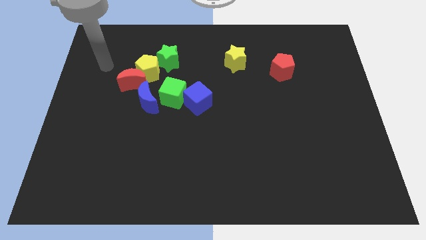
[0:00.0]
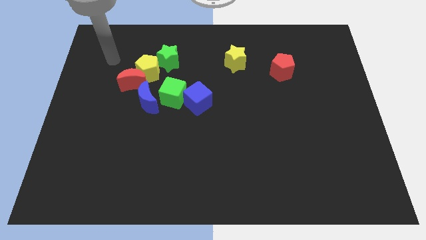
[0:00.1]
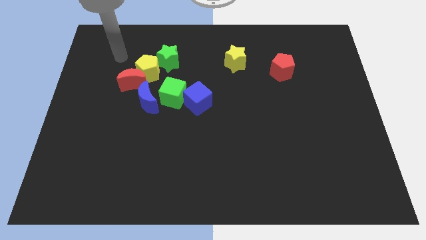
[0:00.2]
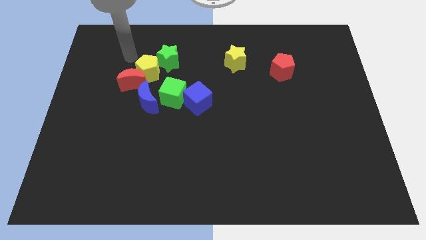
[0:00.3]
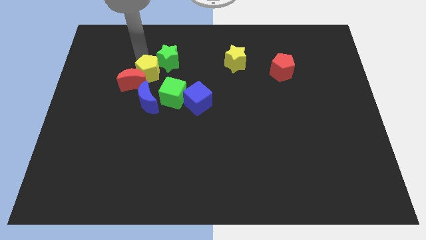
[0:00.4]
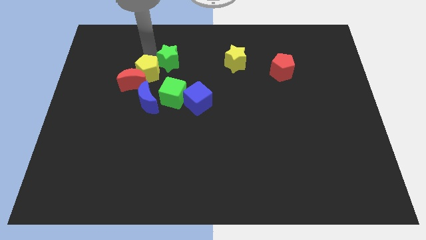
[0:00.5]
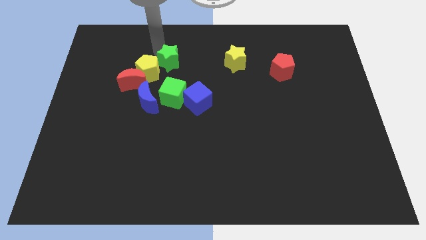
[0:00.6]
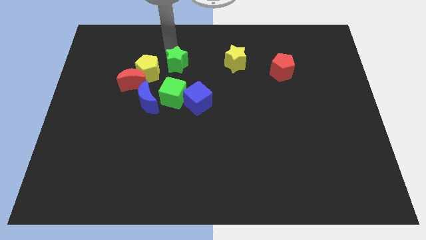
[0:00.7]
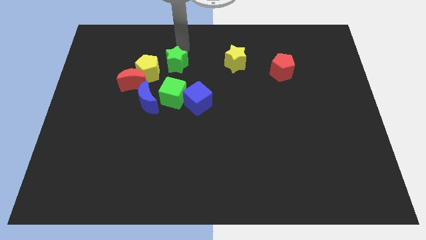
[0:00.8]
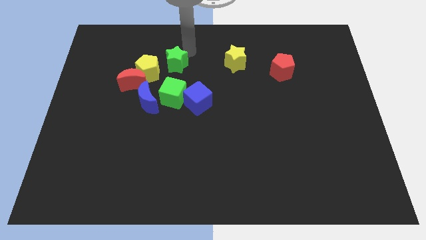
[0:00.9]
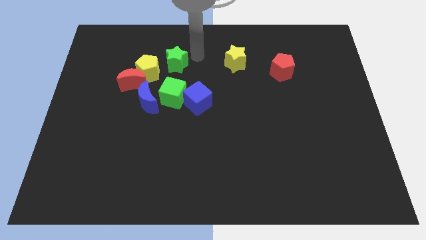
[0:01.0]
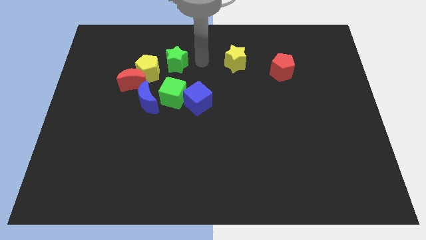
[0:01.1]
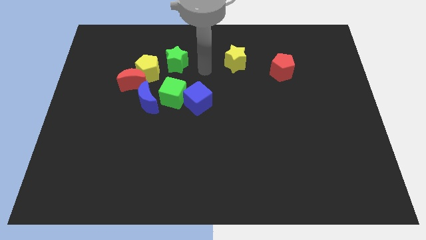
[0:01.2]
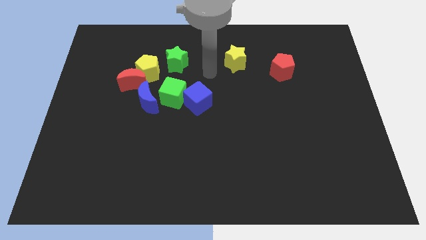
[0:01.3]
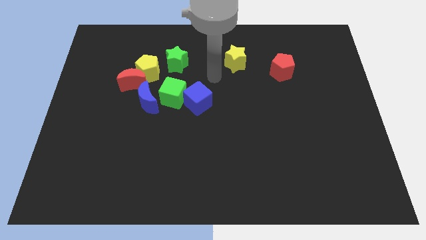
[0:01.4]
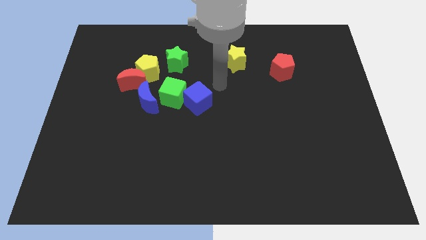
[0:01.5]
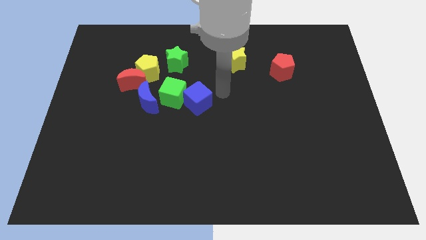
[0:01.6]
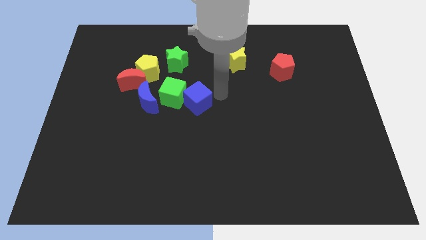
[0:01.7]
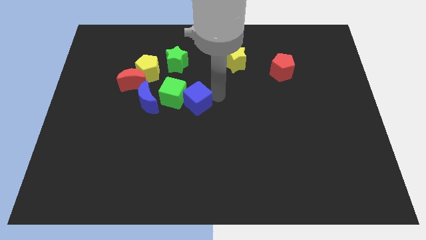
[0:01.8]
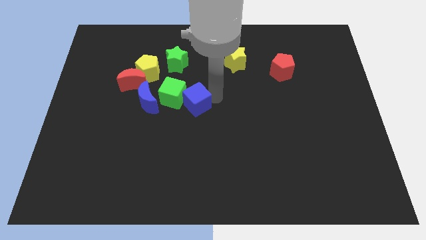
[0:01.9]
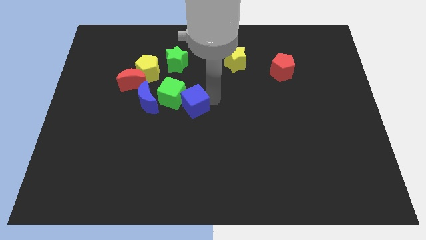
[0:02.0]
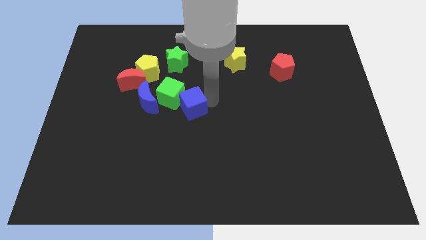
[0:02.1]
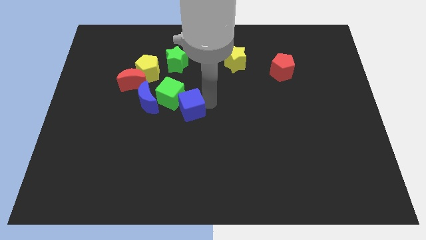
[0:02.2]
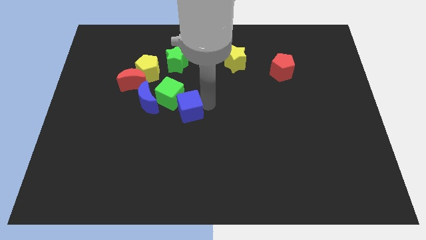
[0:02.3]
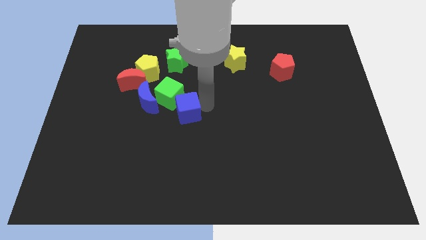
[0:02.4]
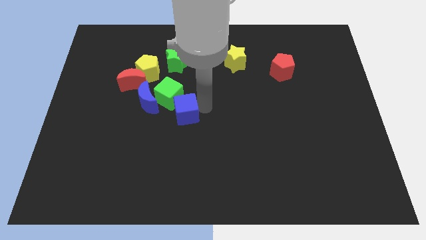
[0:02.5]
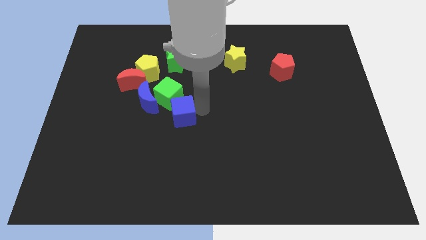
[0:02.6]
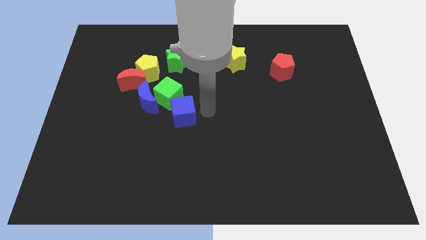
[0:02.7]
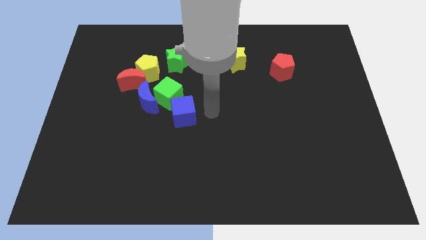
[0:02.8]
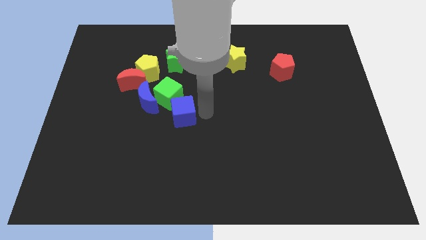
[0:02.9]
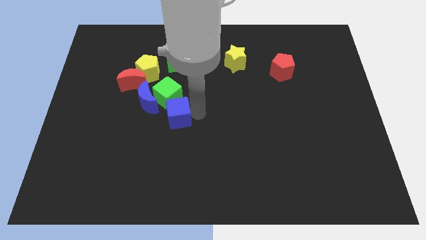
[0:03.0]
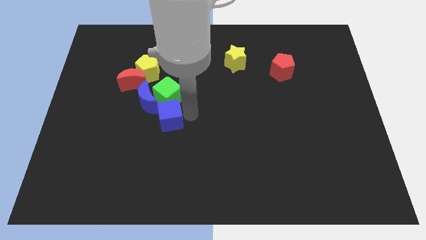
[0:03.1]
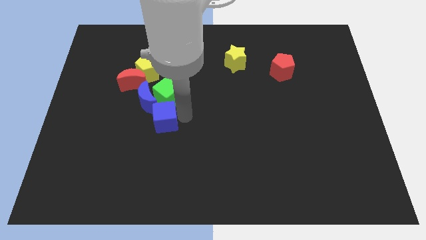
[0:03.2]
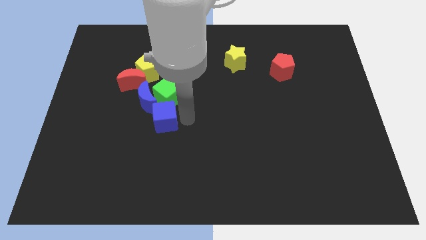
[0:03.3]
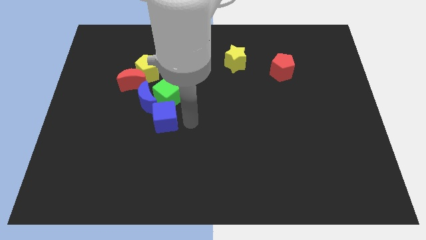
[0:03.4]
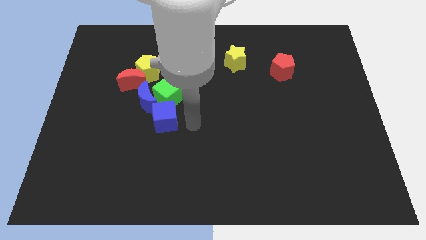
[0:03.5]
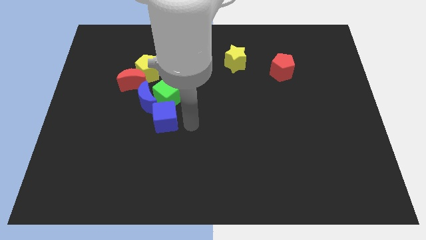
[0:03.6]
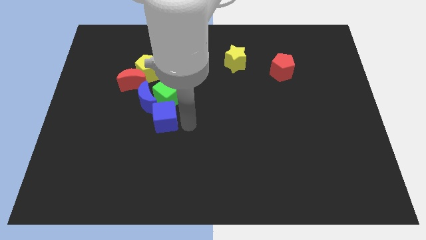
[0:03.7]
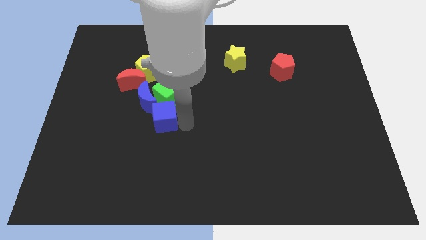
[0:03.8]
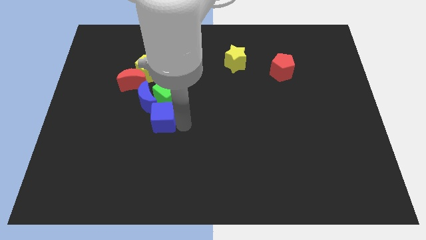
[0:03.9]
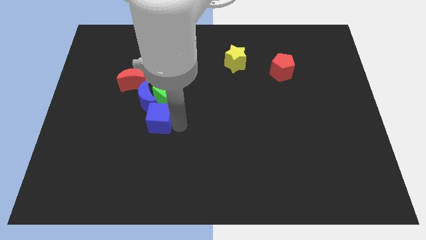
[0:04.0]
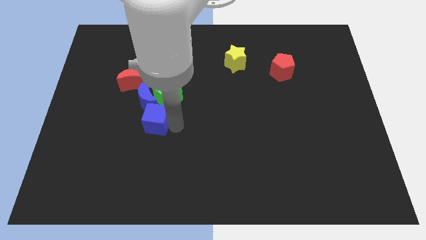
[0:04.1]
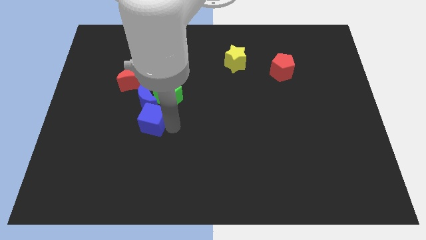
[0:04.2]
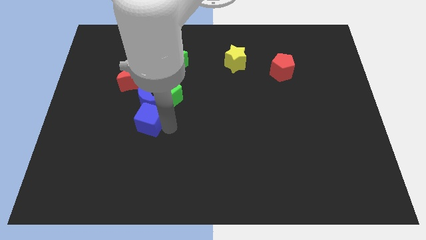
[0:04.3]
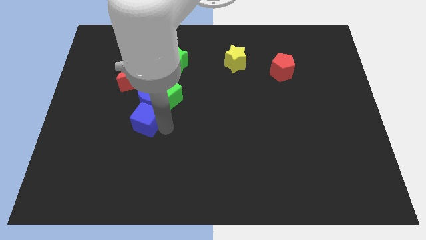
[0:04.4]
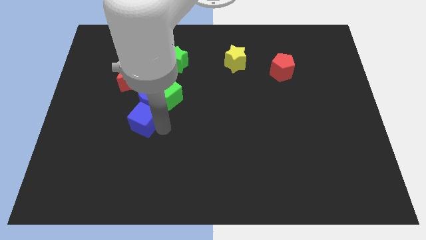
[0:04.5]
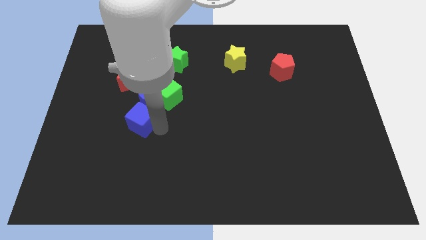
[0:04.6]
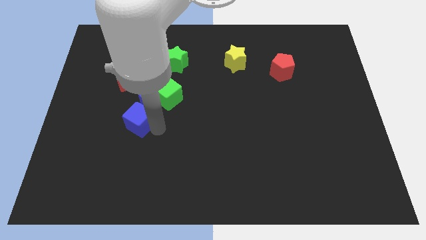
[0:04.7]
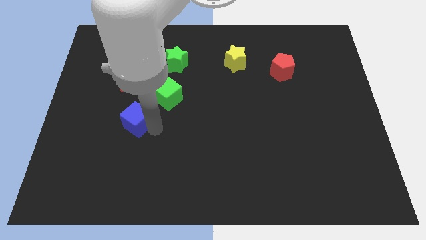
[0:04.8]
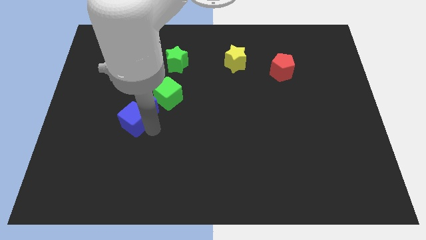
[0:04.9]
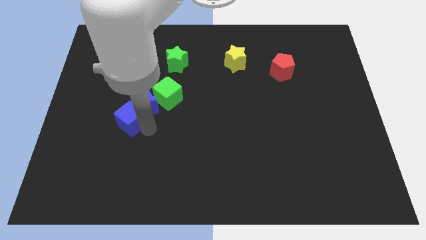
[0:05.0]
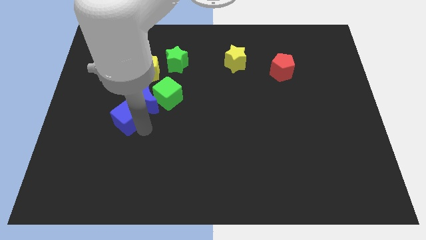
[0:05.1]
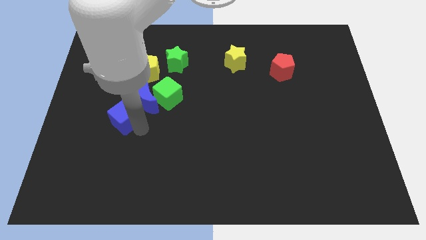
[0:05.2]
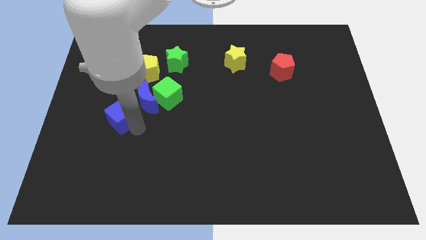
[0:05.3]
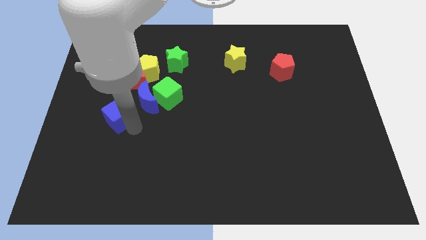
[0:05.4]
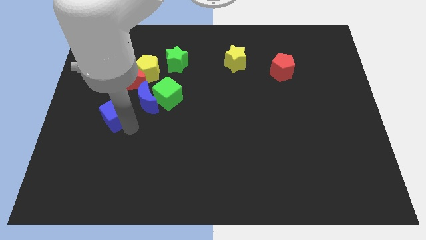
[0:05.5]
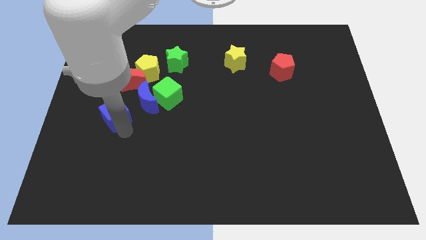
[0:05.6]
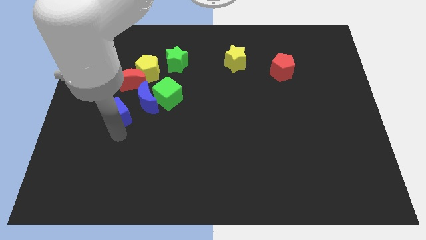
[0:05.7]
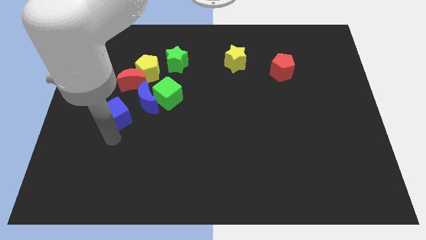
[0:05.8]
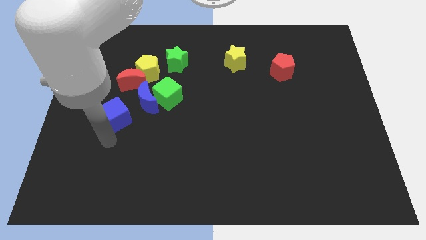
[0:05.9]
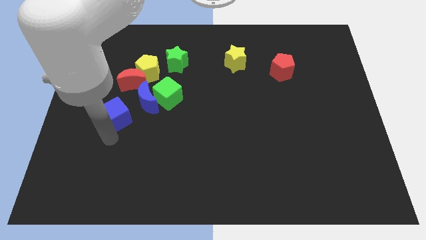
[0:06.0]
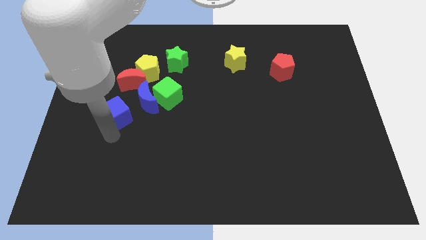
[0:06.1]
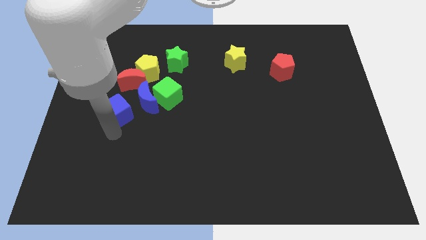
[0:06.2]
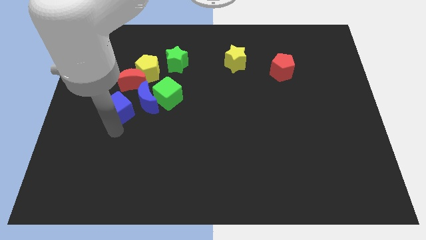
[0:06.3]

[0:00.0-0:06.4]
slide the blue cube to the left side of the green cube
